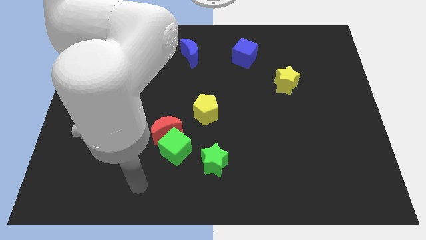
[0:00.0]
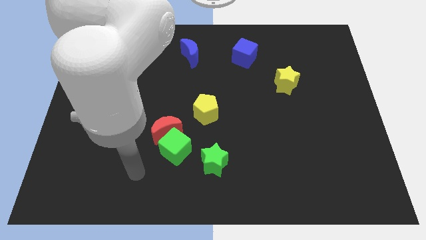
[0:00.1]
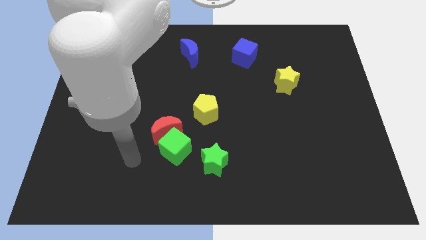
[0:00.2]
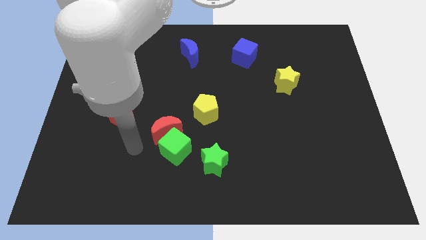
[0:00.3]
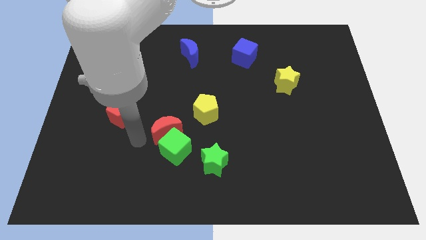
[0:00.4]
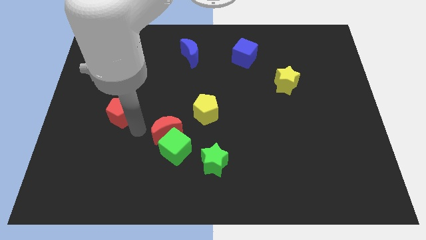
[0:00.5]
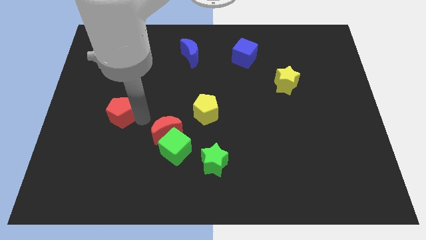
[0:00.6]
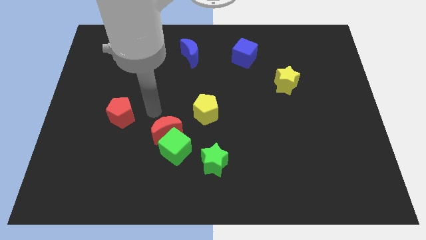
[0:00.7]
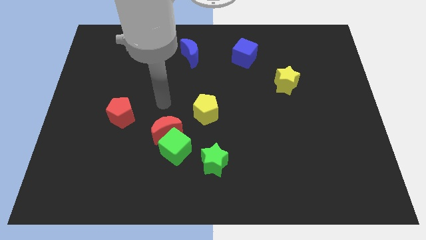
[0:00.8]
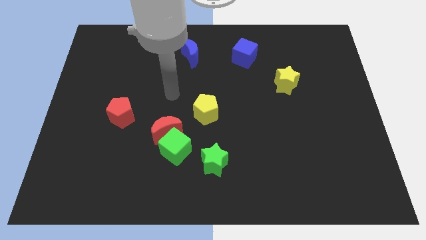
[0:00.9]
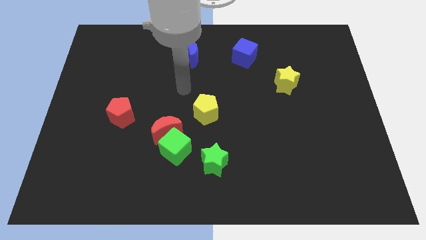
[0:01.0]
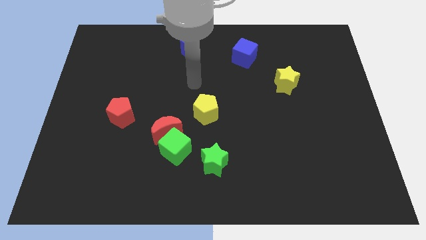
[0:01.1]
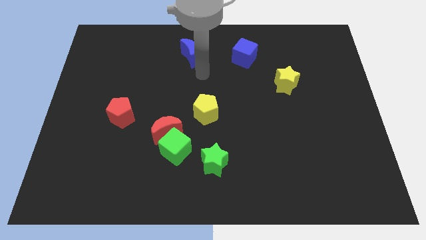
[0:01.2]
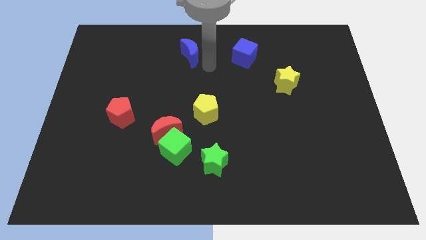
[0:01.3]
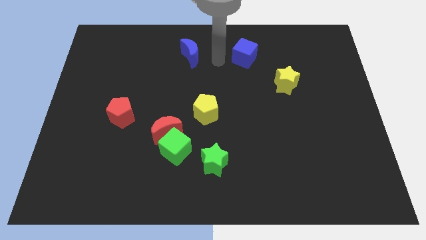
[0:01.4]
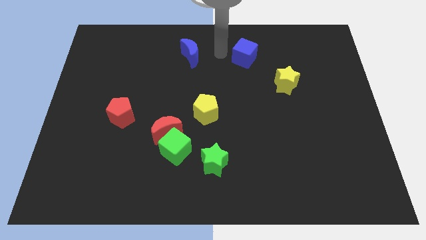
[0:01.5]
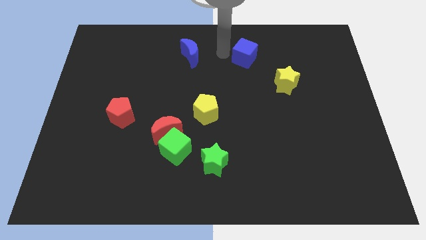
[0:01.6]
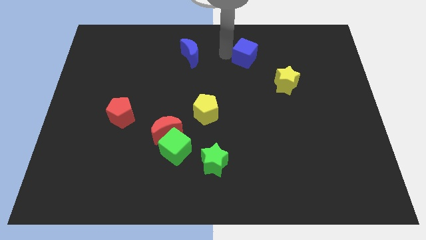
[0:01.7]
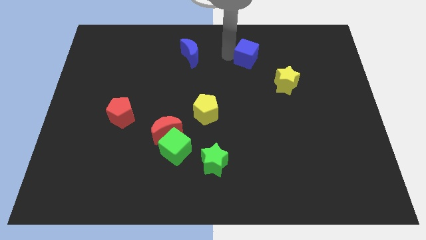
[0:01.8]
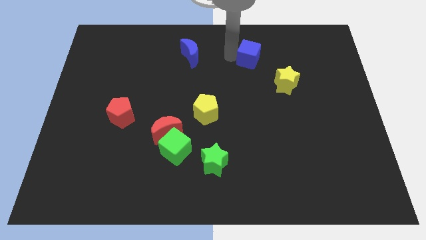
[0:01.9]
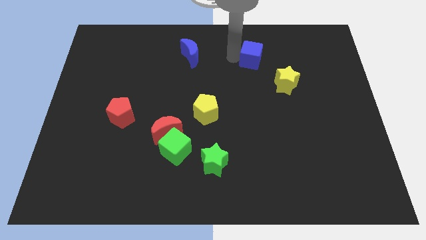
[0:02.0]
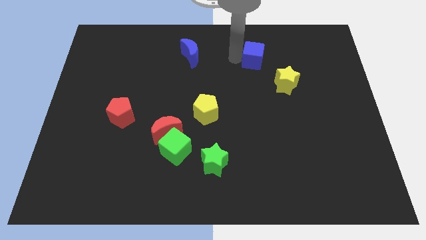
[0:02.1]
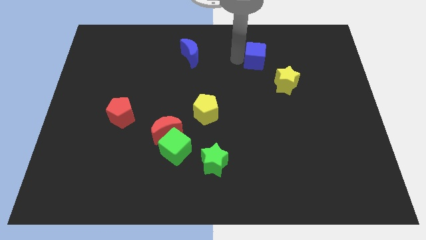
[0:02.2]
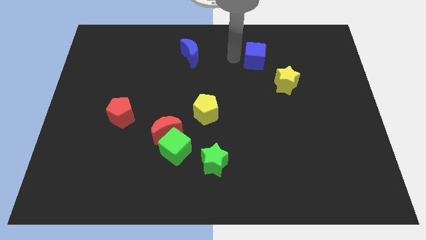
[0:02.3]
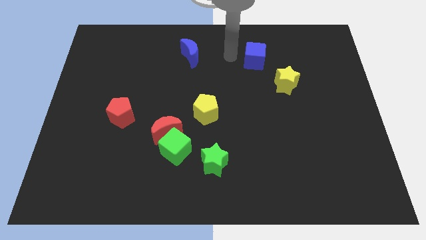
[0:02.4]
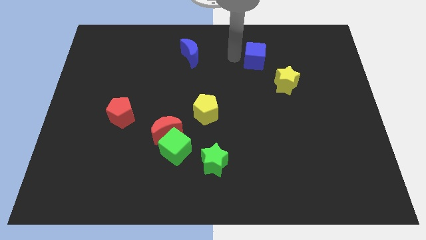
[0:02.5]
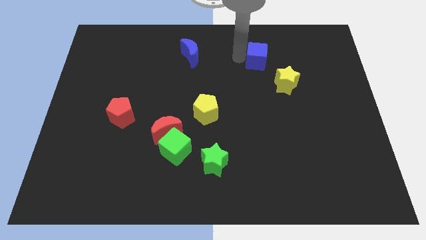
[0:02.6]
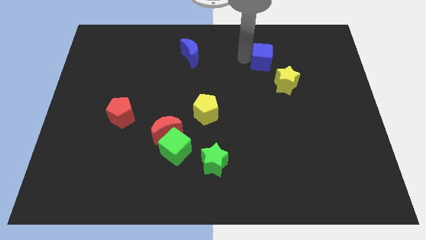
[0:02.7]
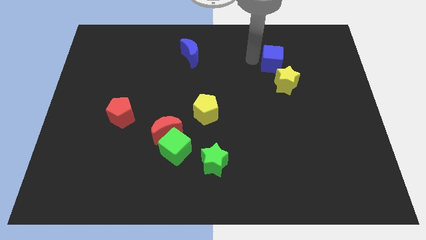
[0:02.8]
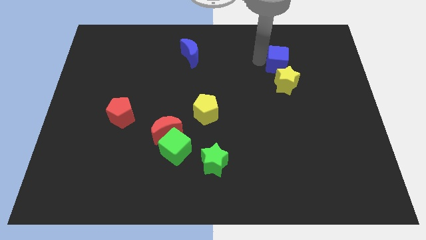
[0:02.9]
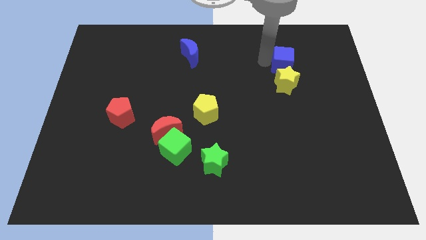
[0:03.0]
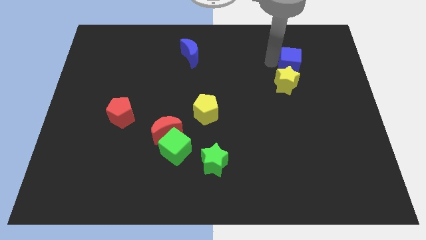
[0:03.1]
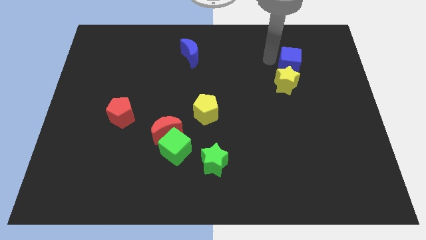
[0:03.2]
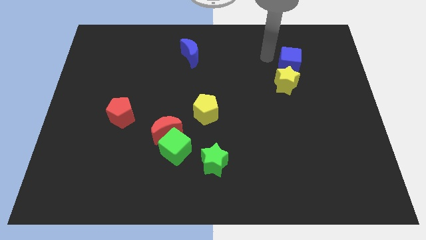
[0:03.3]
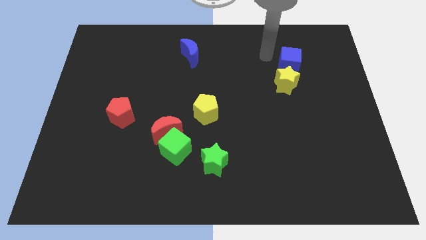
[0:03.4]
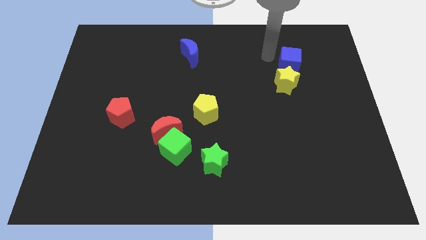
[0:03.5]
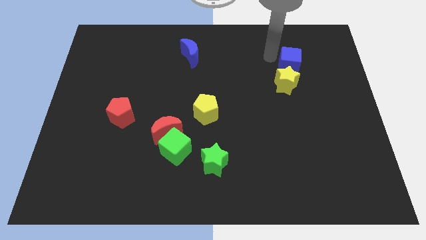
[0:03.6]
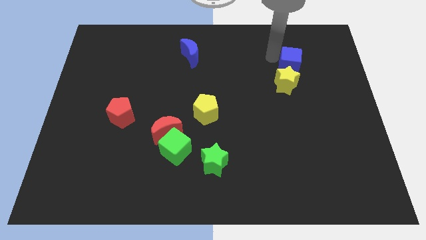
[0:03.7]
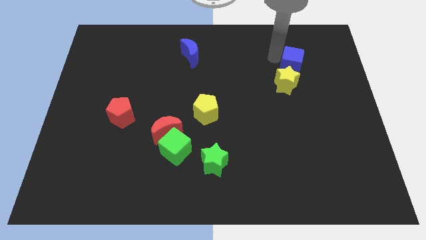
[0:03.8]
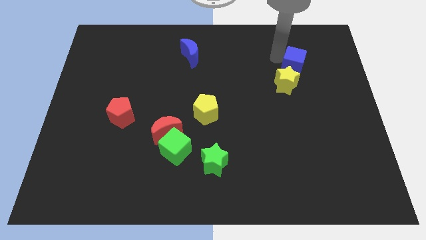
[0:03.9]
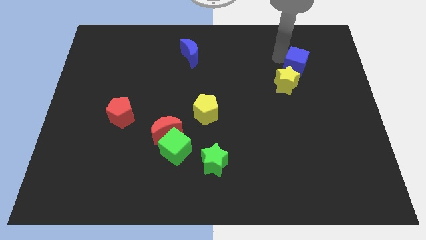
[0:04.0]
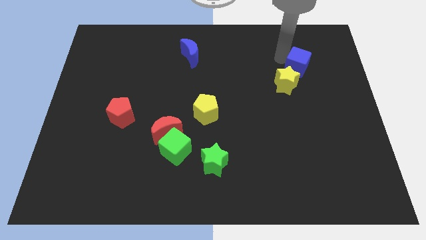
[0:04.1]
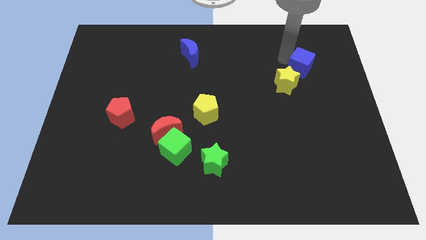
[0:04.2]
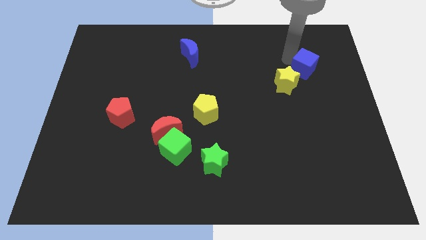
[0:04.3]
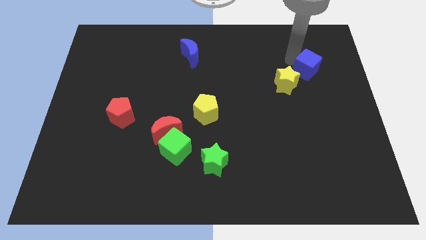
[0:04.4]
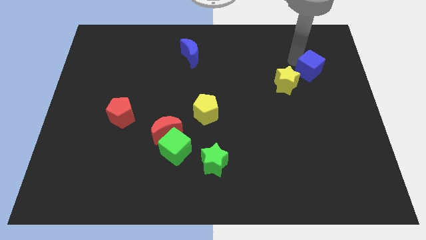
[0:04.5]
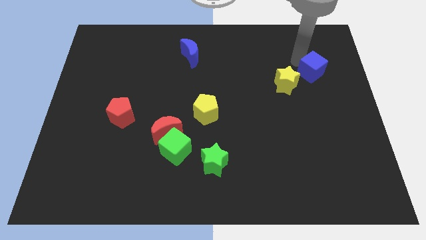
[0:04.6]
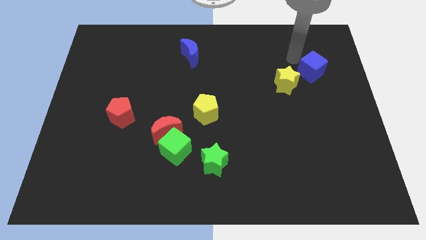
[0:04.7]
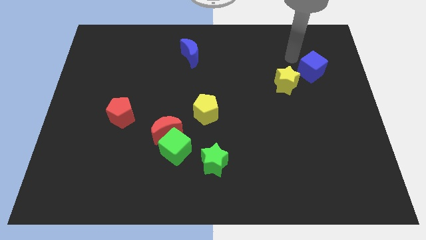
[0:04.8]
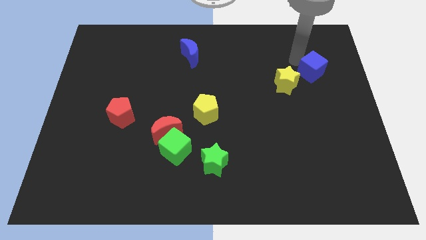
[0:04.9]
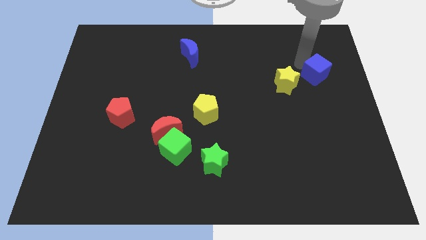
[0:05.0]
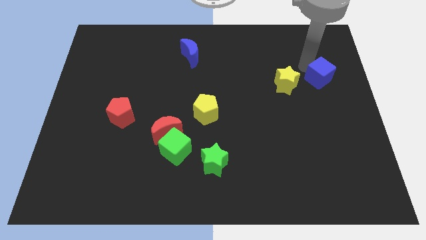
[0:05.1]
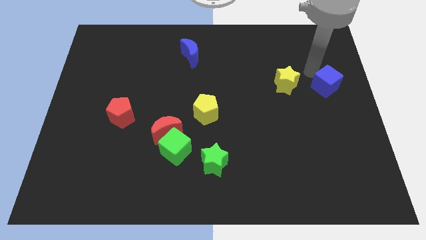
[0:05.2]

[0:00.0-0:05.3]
move the blue cube to the right side

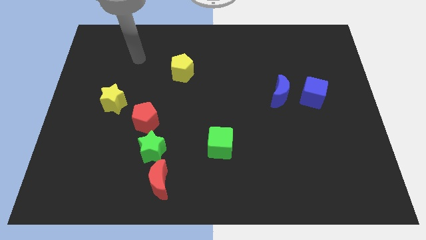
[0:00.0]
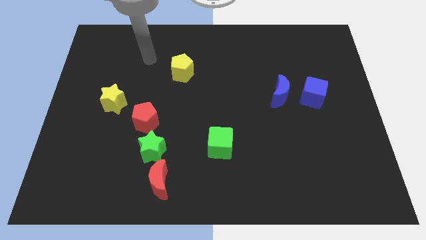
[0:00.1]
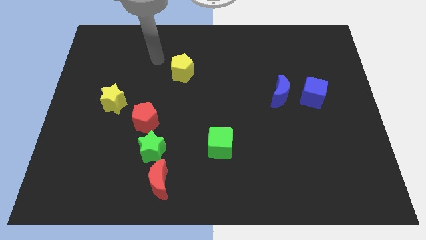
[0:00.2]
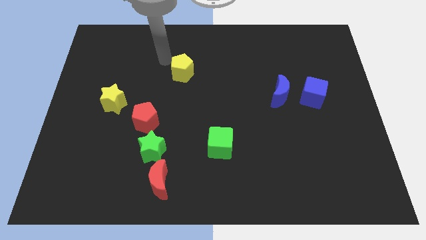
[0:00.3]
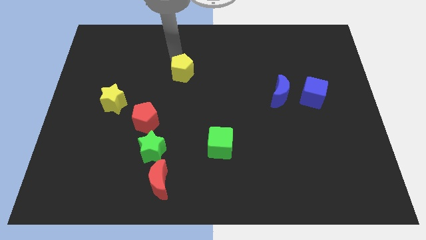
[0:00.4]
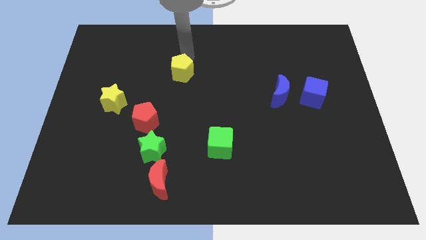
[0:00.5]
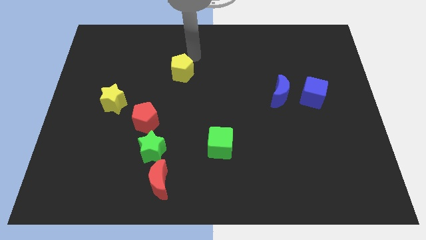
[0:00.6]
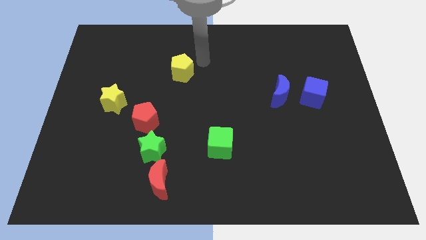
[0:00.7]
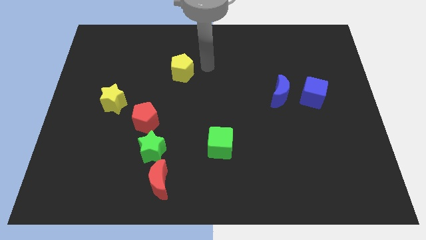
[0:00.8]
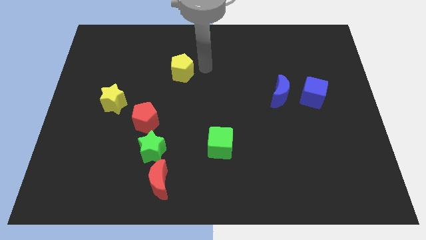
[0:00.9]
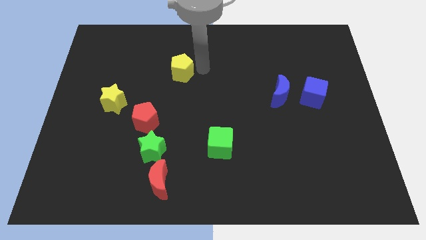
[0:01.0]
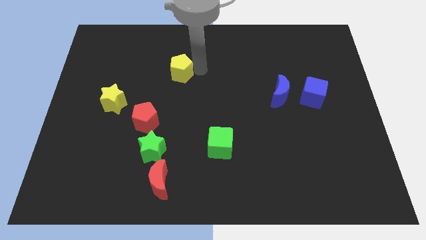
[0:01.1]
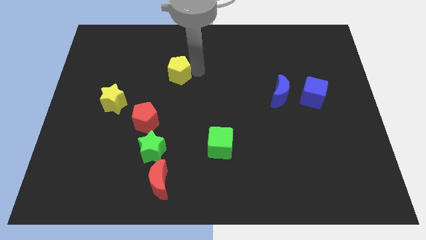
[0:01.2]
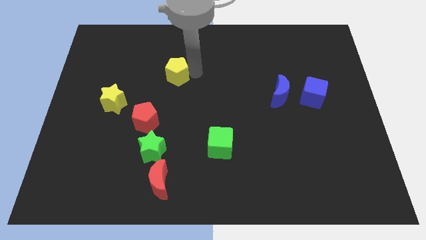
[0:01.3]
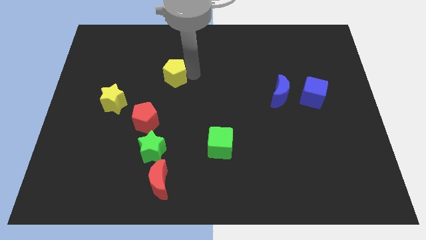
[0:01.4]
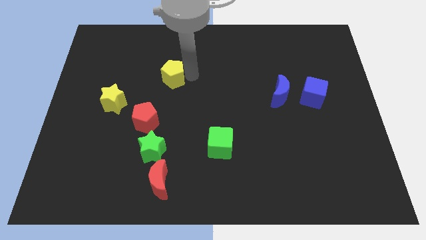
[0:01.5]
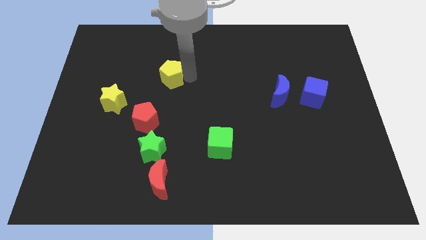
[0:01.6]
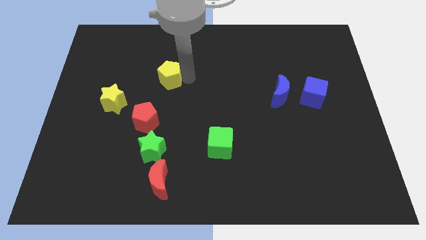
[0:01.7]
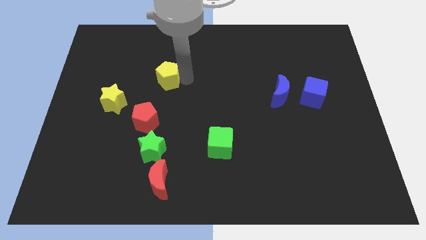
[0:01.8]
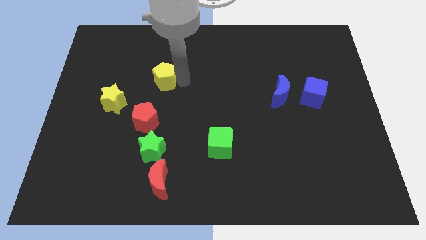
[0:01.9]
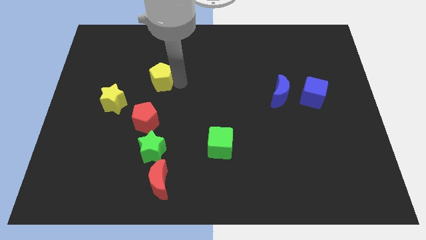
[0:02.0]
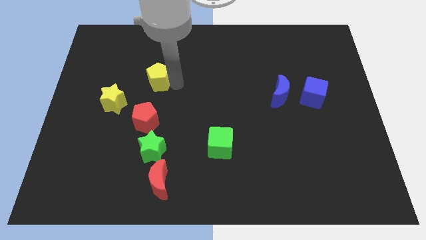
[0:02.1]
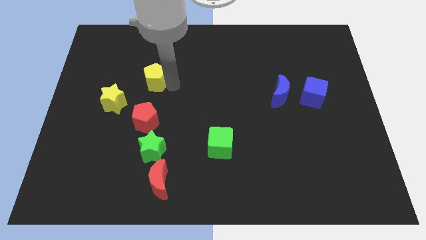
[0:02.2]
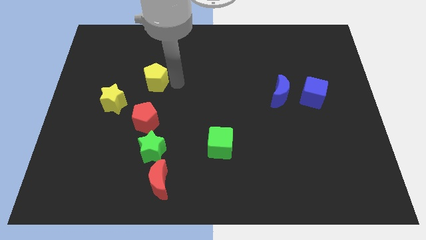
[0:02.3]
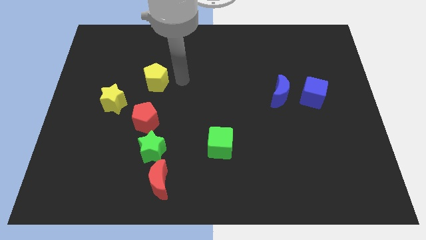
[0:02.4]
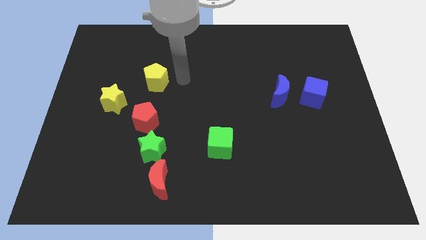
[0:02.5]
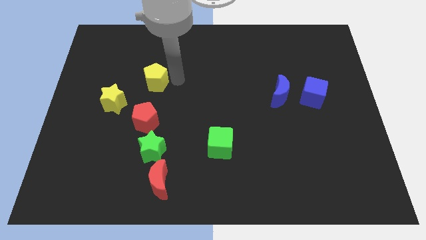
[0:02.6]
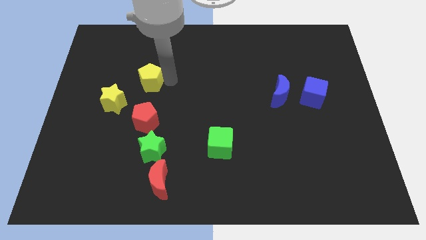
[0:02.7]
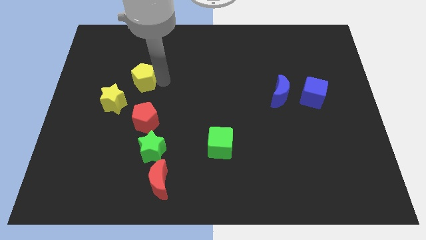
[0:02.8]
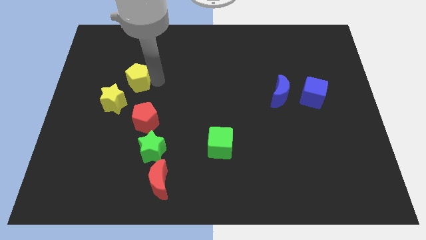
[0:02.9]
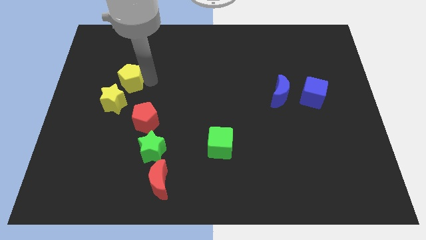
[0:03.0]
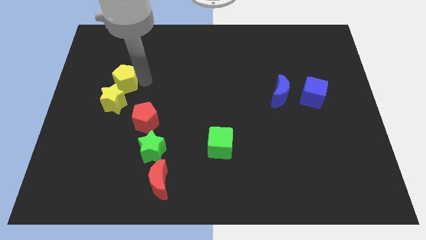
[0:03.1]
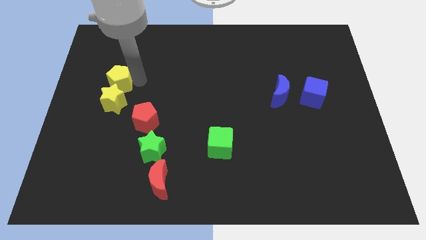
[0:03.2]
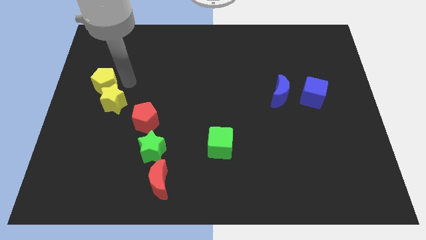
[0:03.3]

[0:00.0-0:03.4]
slide the yellow pentagon to the center left
